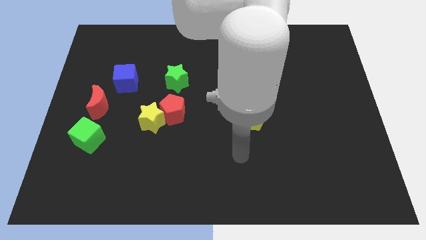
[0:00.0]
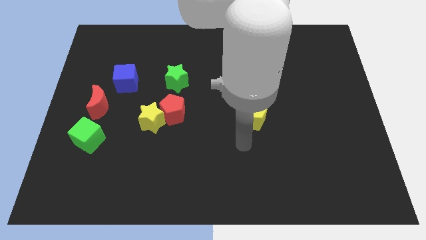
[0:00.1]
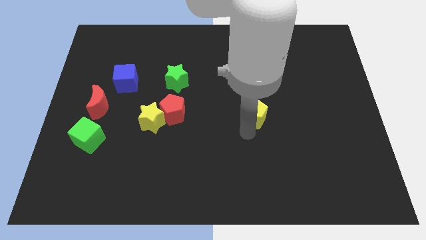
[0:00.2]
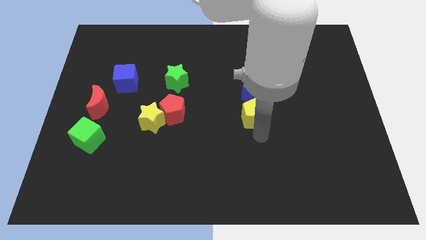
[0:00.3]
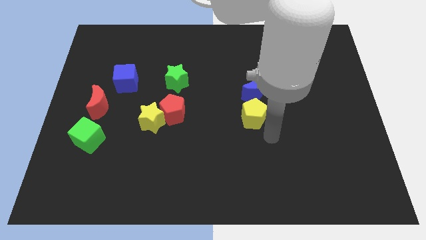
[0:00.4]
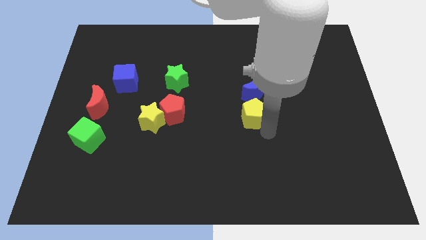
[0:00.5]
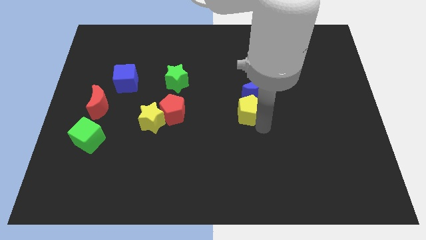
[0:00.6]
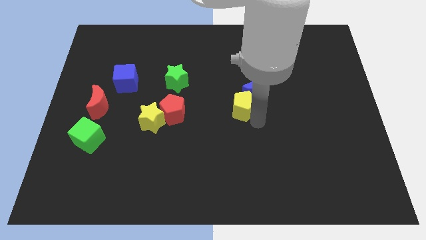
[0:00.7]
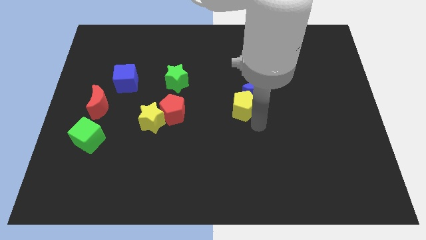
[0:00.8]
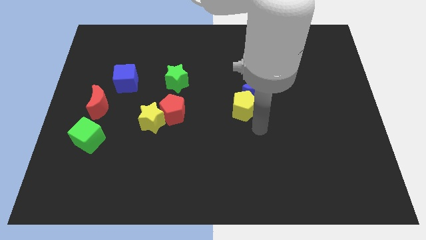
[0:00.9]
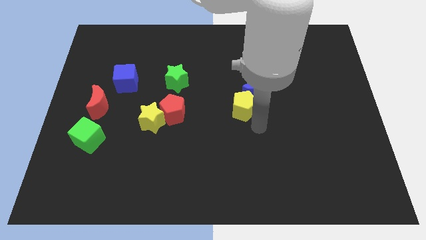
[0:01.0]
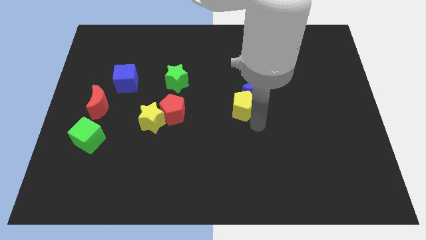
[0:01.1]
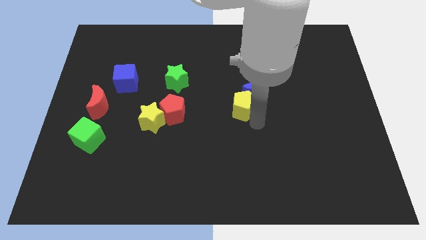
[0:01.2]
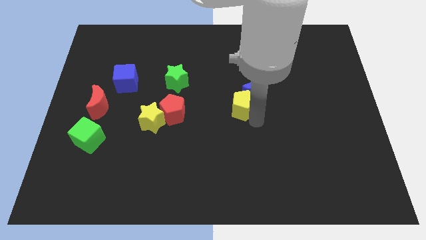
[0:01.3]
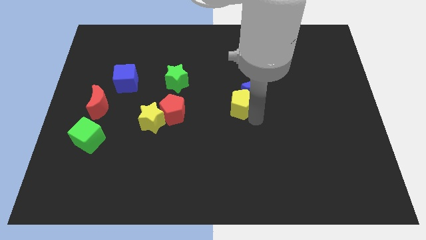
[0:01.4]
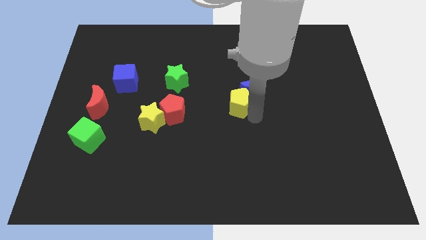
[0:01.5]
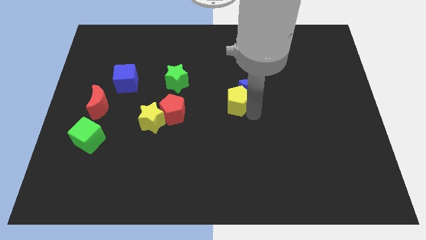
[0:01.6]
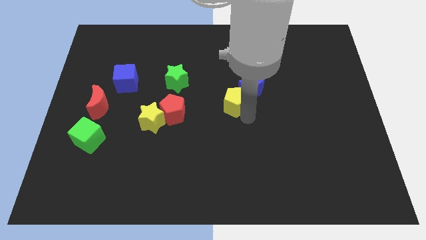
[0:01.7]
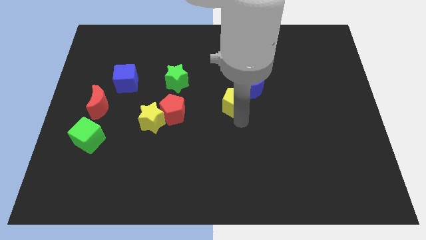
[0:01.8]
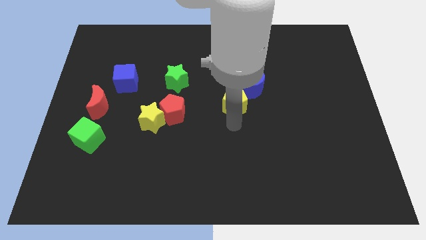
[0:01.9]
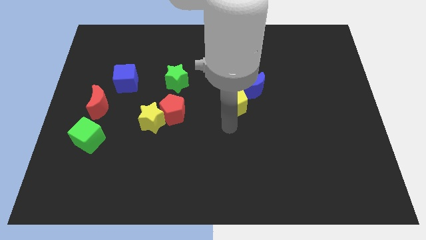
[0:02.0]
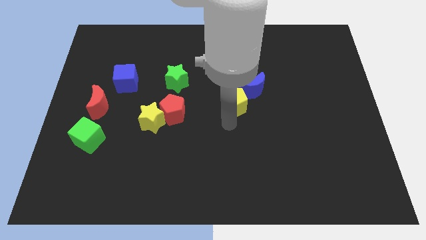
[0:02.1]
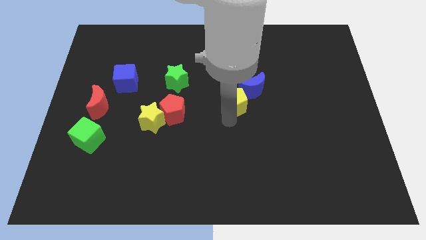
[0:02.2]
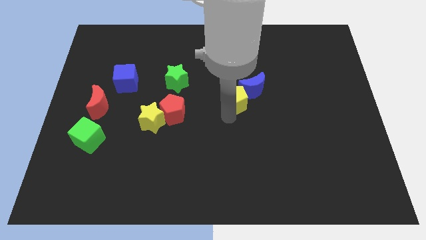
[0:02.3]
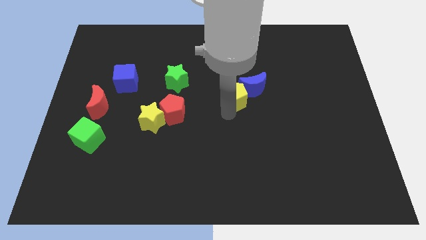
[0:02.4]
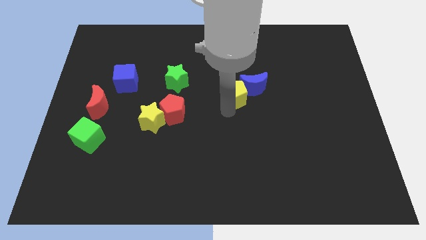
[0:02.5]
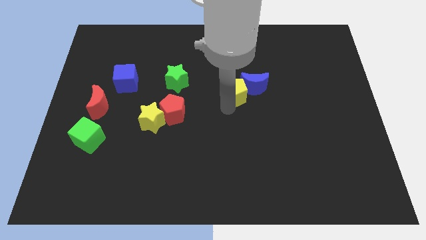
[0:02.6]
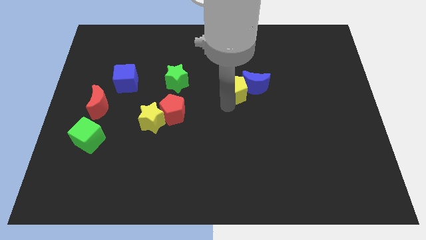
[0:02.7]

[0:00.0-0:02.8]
slightly push the yellow pentagon upwards

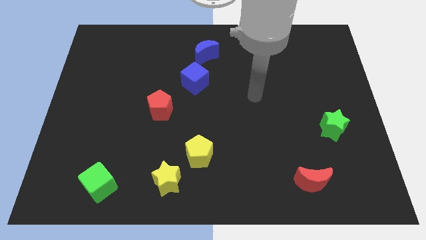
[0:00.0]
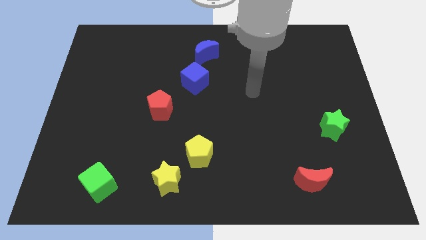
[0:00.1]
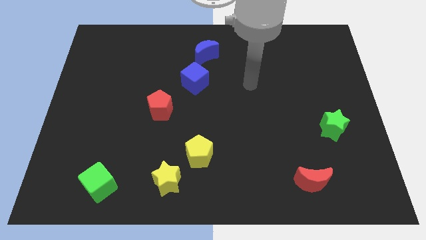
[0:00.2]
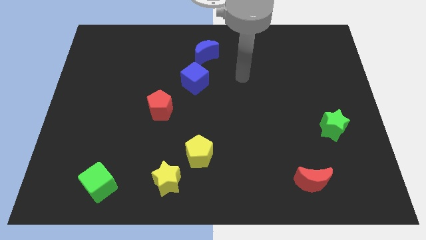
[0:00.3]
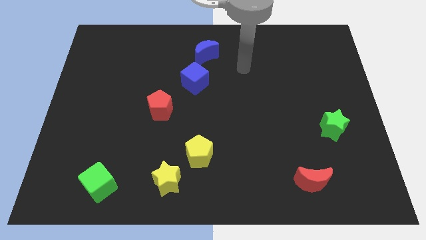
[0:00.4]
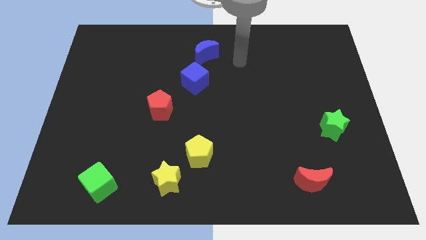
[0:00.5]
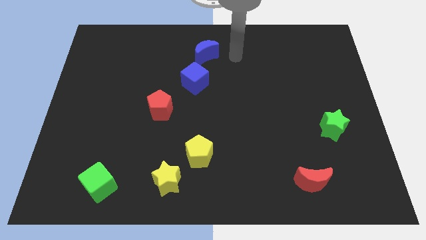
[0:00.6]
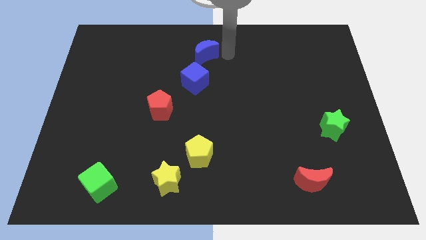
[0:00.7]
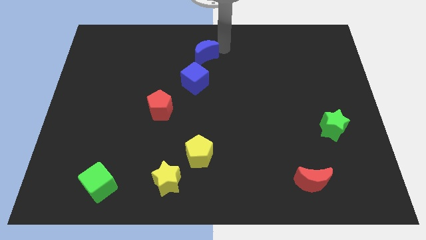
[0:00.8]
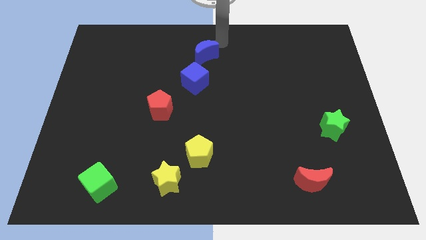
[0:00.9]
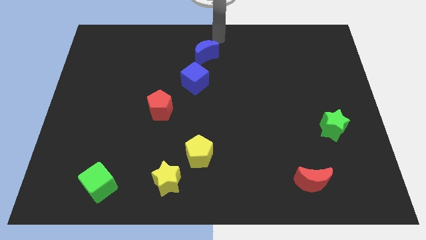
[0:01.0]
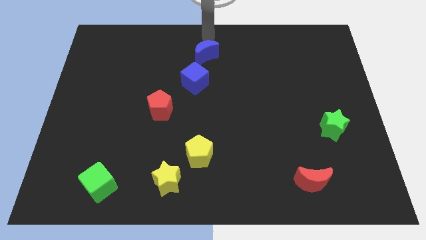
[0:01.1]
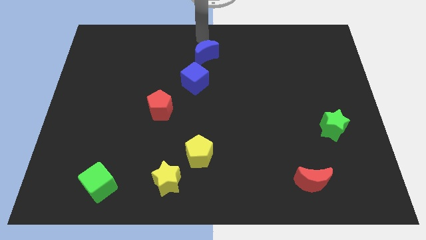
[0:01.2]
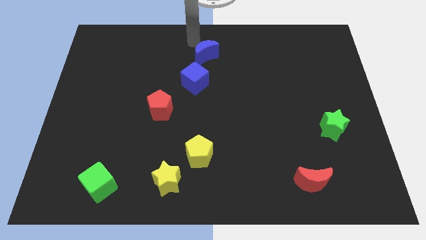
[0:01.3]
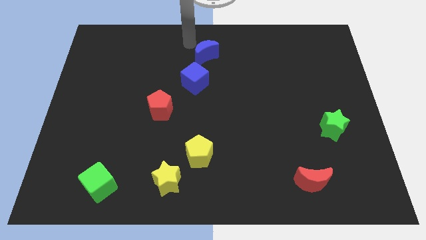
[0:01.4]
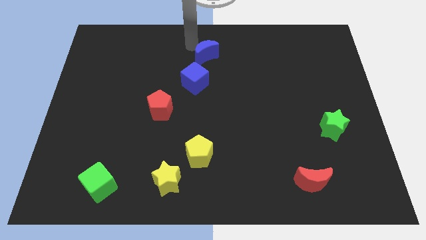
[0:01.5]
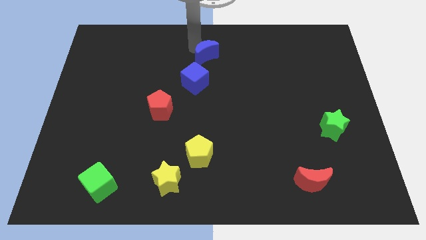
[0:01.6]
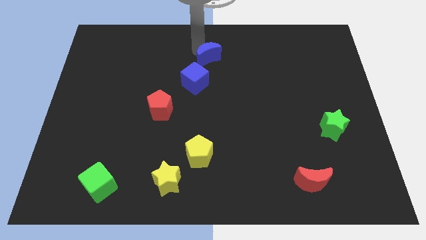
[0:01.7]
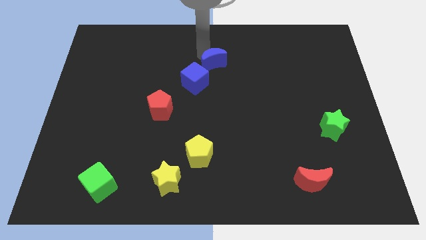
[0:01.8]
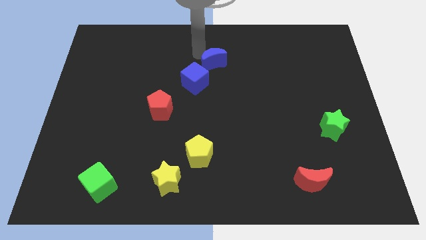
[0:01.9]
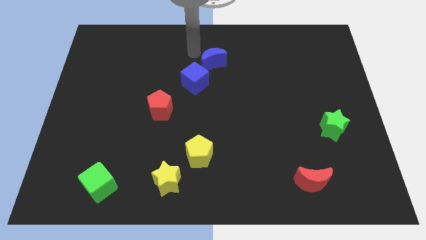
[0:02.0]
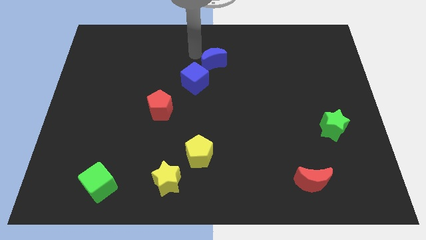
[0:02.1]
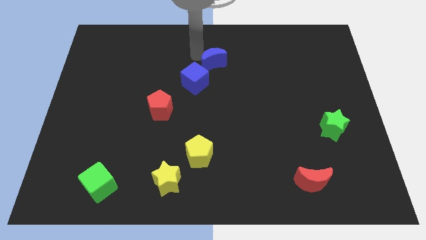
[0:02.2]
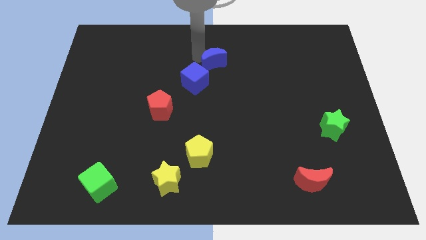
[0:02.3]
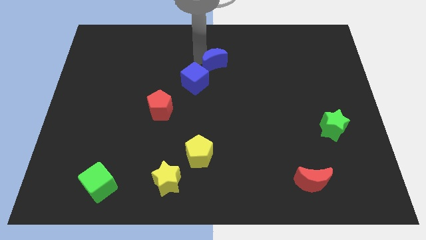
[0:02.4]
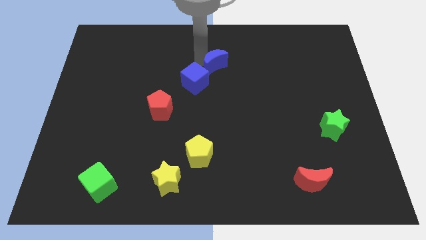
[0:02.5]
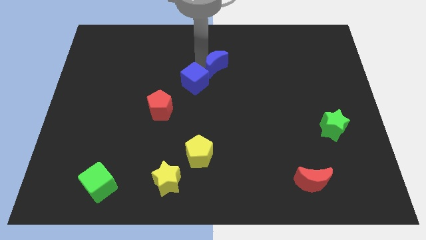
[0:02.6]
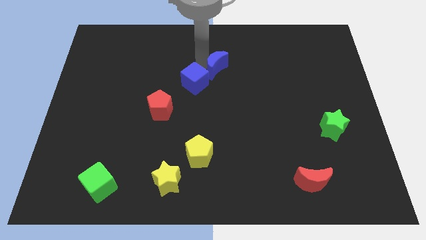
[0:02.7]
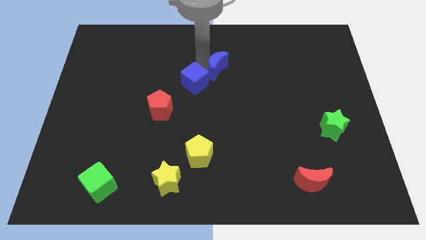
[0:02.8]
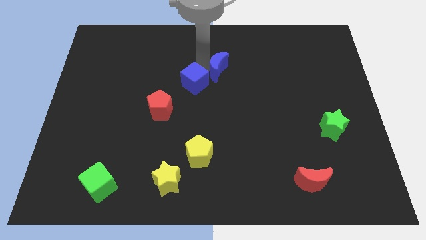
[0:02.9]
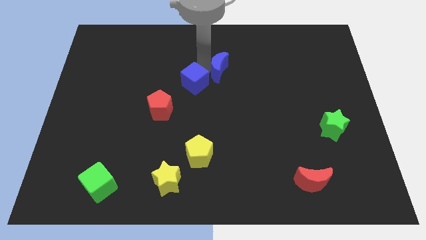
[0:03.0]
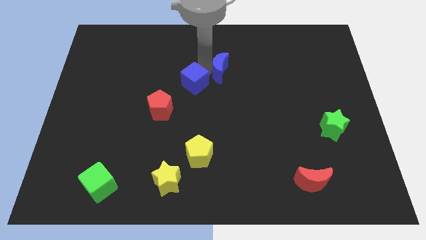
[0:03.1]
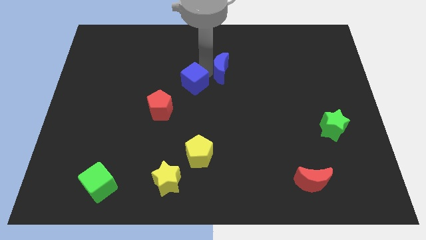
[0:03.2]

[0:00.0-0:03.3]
push the blue moon a little bit downwards and to the right

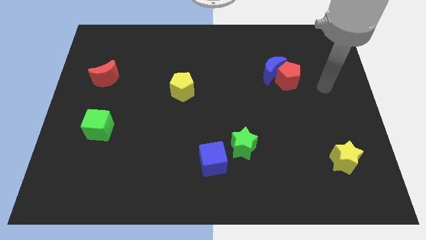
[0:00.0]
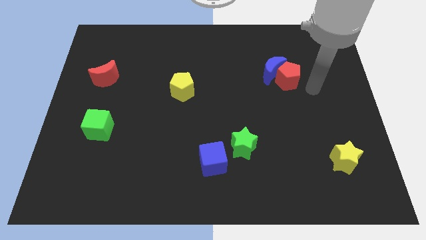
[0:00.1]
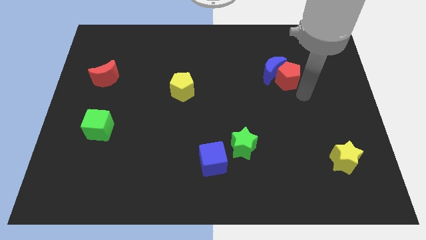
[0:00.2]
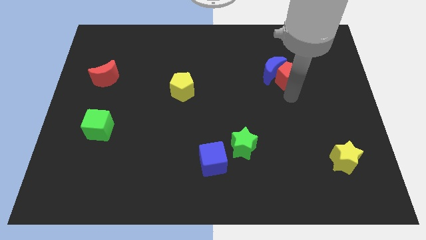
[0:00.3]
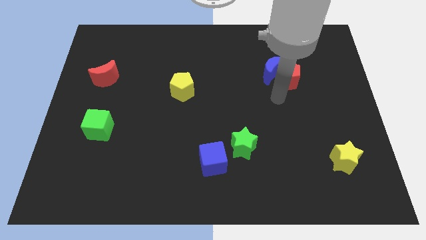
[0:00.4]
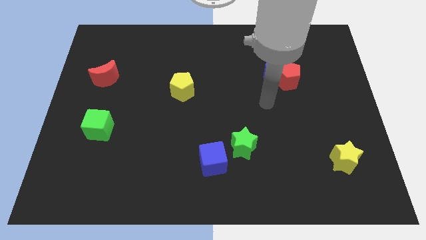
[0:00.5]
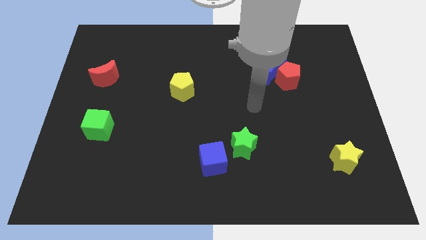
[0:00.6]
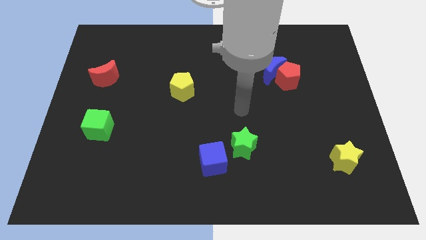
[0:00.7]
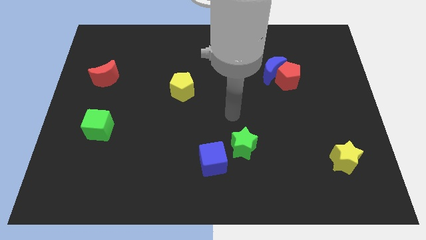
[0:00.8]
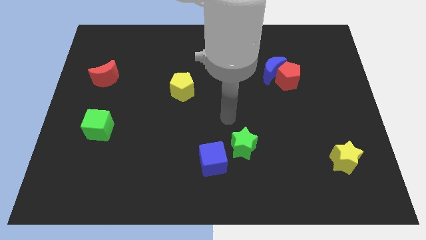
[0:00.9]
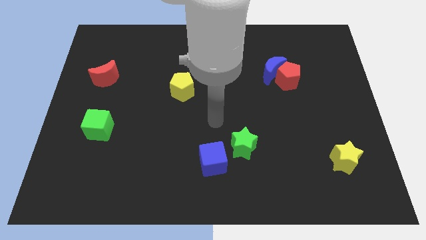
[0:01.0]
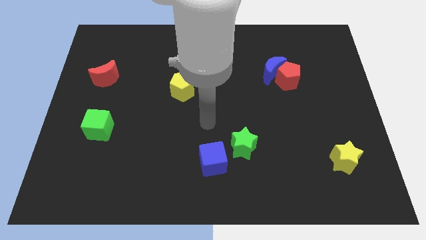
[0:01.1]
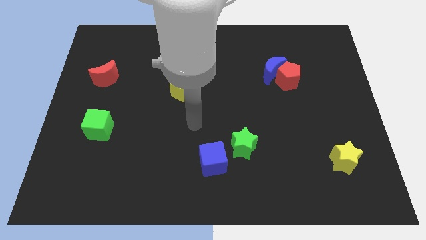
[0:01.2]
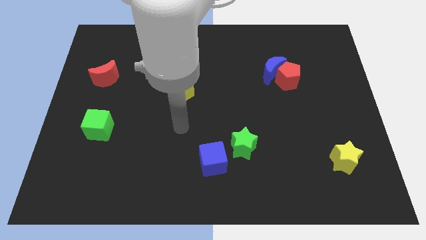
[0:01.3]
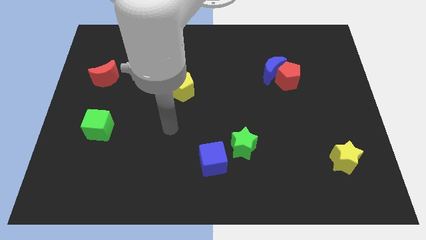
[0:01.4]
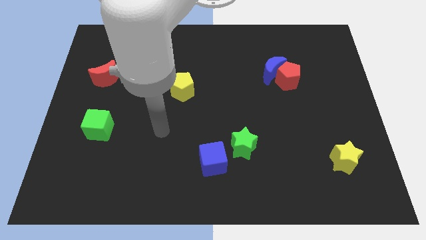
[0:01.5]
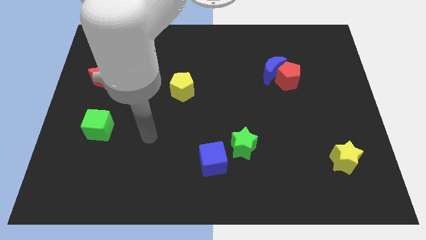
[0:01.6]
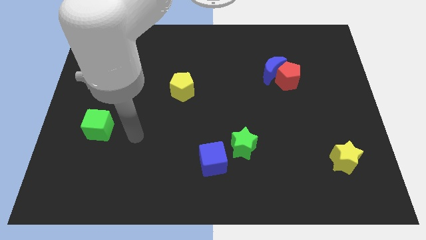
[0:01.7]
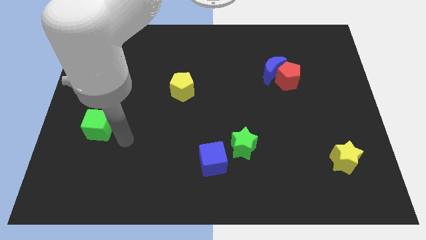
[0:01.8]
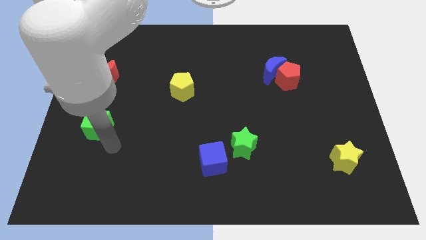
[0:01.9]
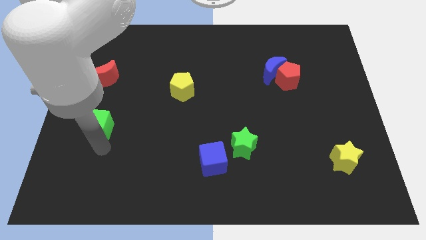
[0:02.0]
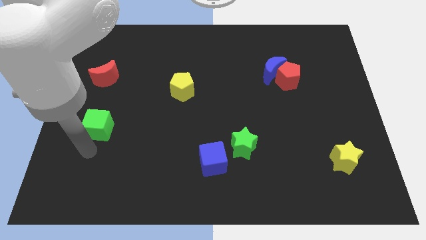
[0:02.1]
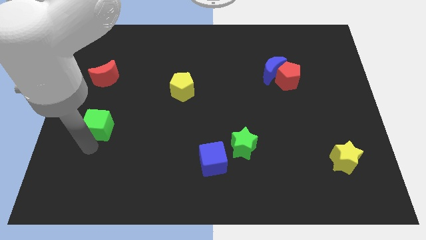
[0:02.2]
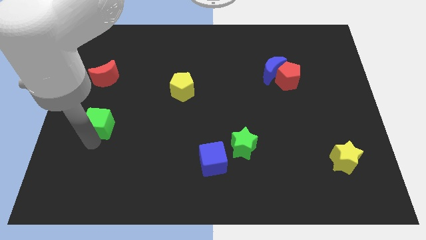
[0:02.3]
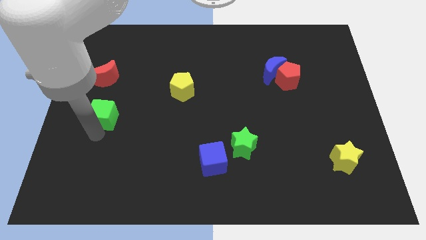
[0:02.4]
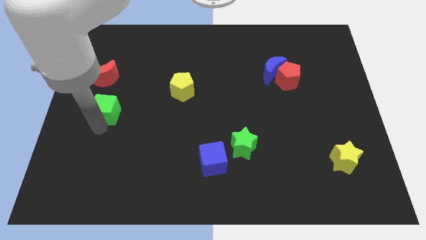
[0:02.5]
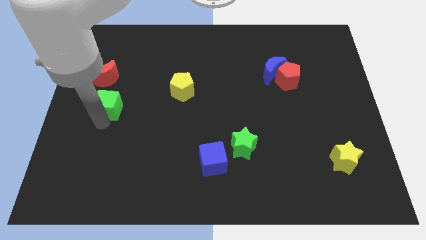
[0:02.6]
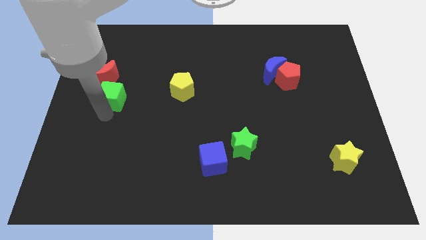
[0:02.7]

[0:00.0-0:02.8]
slightly push the green cube upwards
